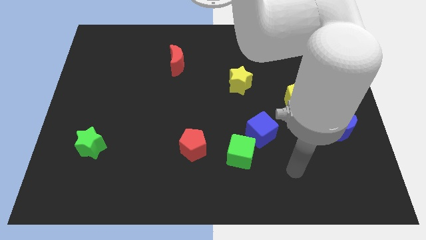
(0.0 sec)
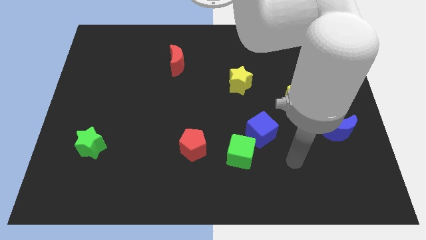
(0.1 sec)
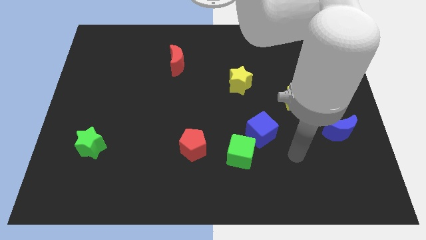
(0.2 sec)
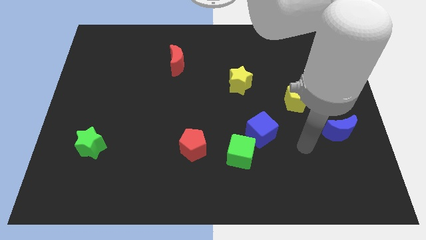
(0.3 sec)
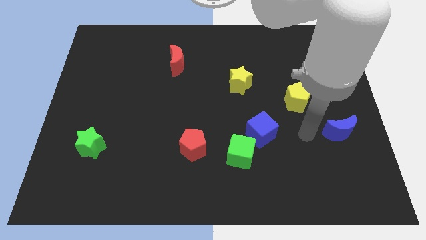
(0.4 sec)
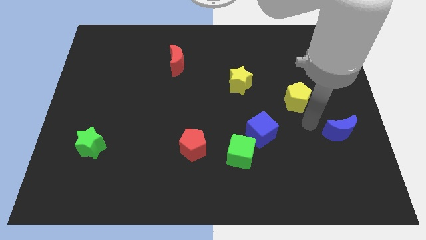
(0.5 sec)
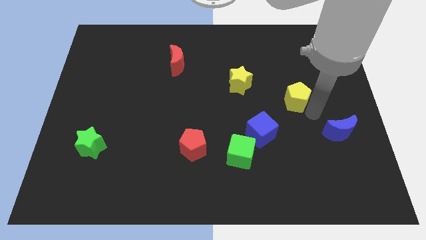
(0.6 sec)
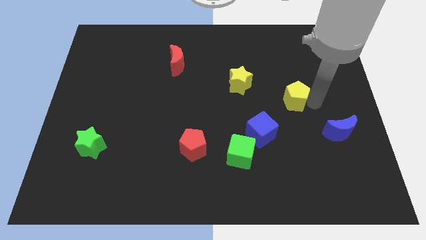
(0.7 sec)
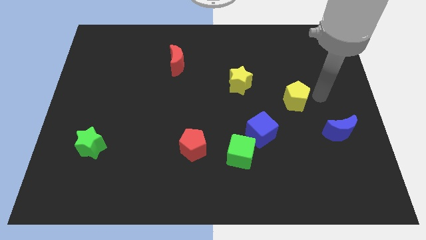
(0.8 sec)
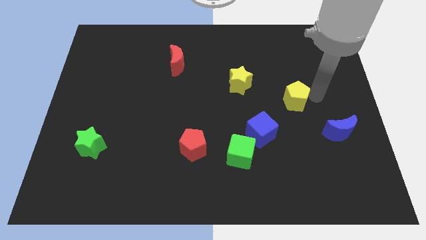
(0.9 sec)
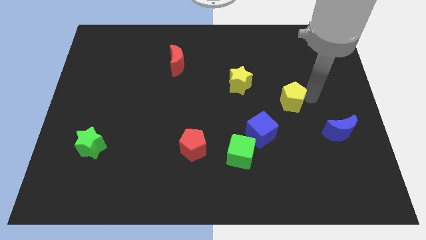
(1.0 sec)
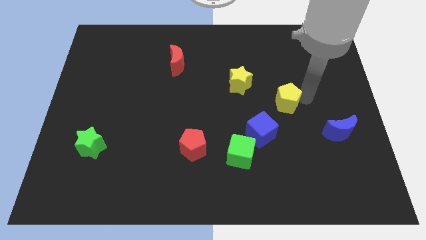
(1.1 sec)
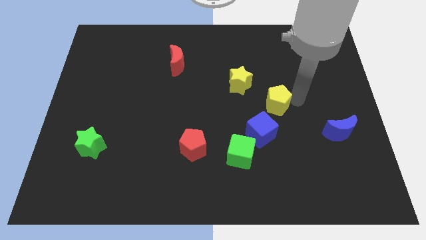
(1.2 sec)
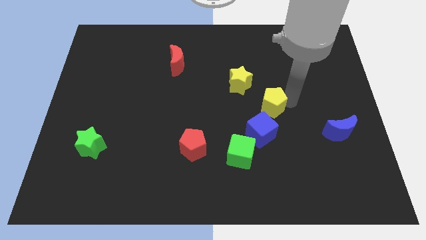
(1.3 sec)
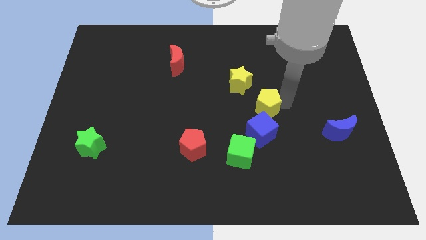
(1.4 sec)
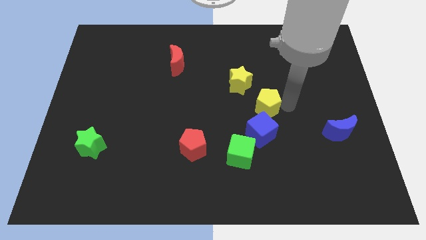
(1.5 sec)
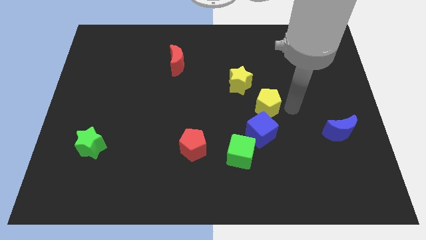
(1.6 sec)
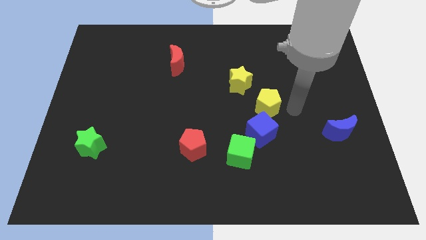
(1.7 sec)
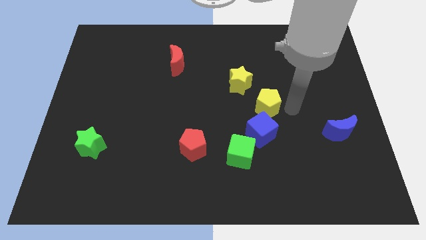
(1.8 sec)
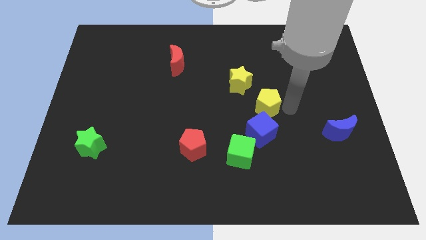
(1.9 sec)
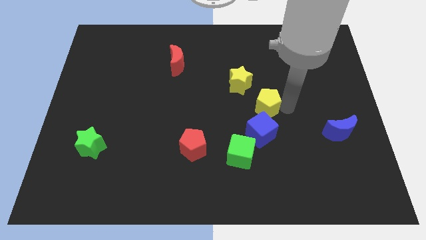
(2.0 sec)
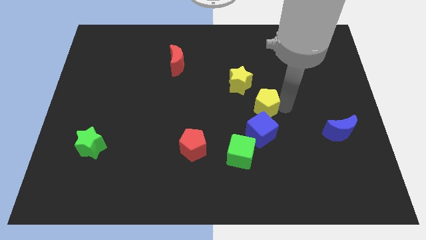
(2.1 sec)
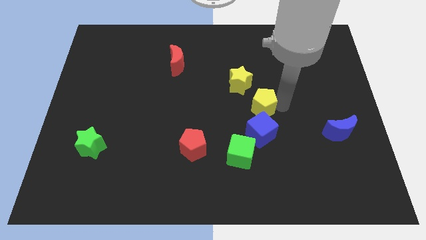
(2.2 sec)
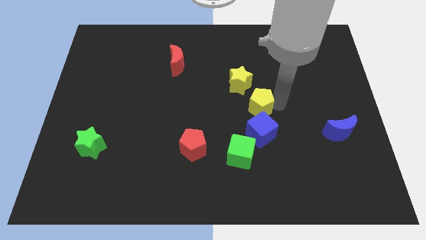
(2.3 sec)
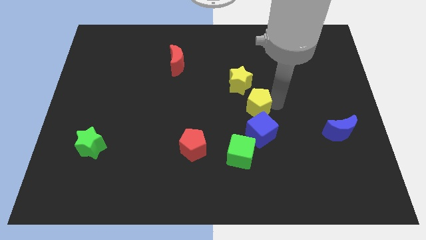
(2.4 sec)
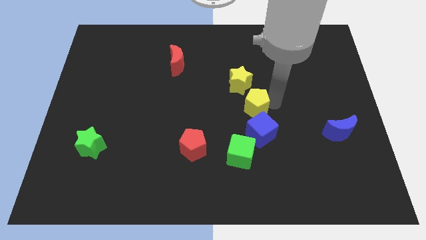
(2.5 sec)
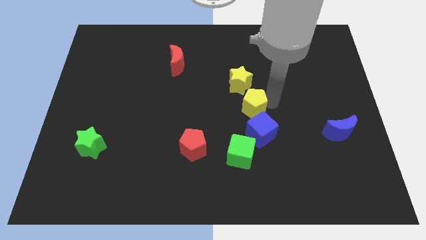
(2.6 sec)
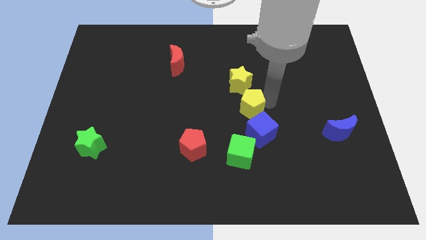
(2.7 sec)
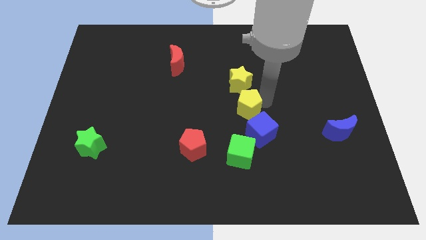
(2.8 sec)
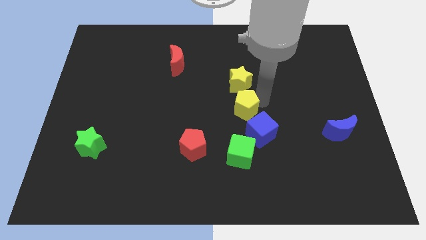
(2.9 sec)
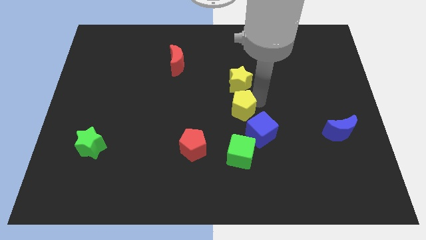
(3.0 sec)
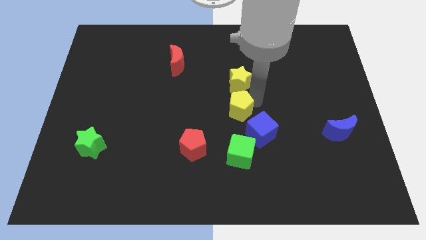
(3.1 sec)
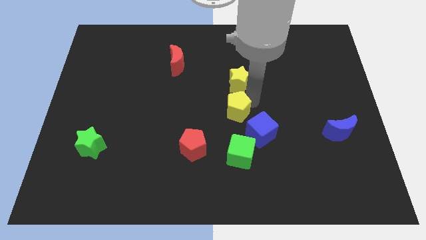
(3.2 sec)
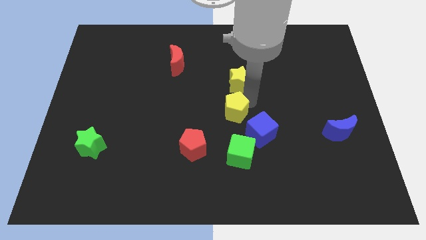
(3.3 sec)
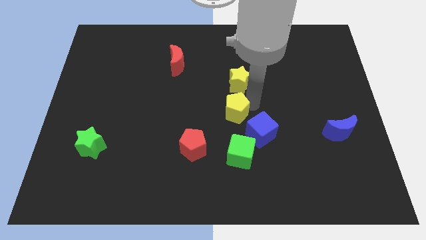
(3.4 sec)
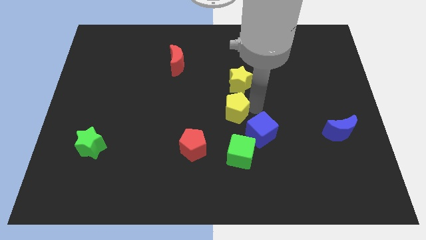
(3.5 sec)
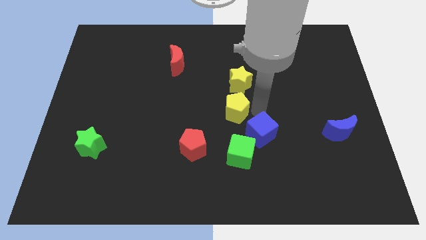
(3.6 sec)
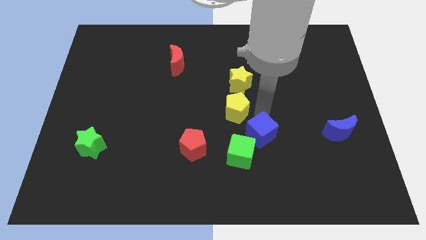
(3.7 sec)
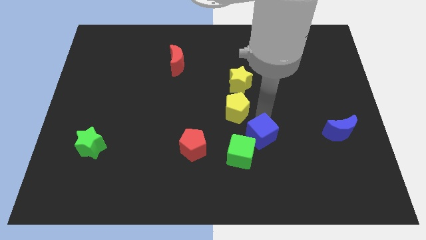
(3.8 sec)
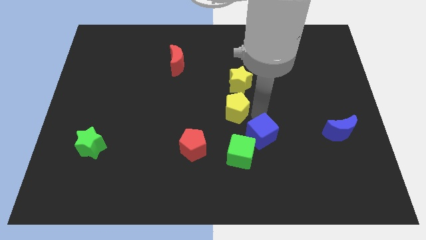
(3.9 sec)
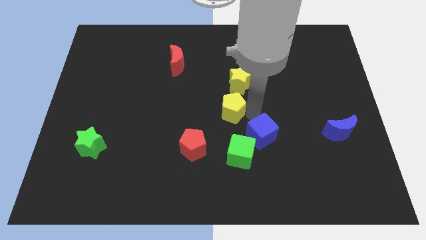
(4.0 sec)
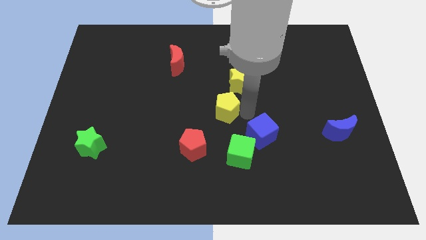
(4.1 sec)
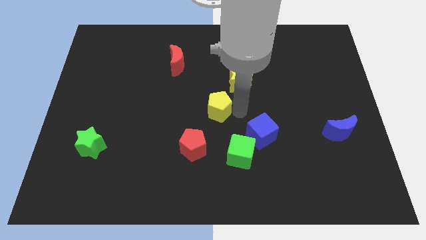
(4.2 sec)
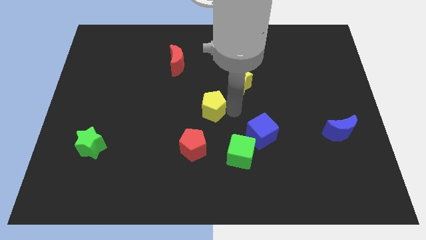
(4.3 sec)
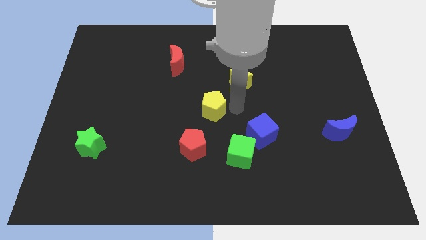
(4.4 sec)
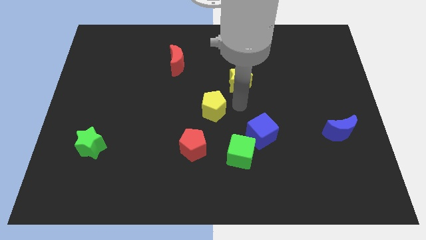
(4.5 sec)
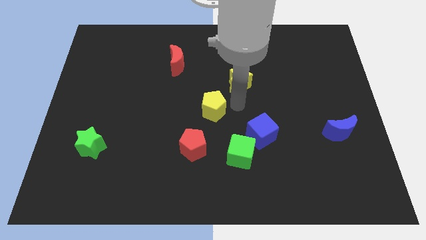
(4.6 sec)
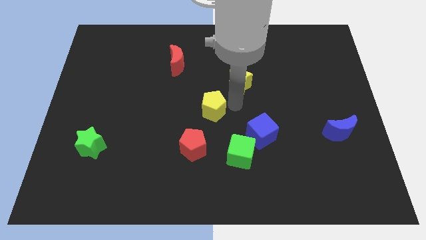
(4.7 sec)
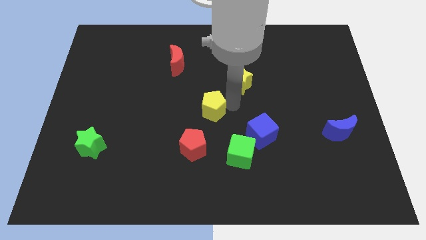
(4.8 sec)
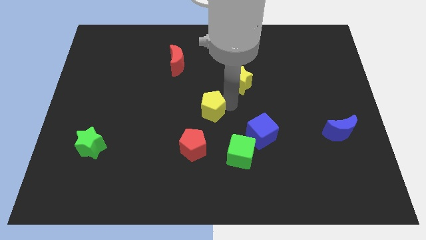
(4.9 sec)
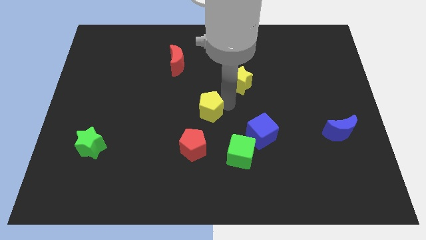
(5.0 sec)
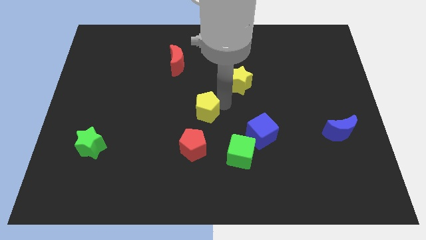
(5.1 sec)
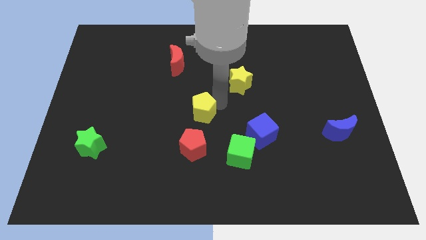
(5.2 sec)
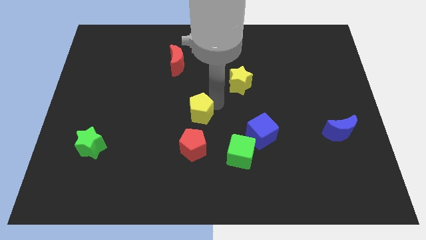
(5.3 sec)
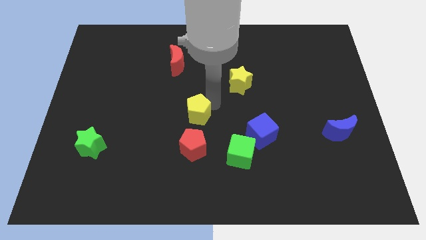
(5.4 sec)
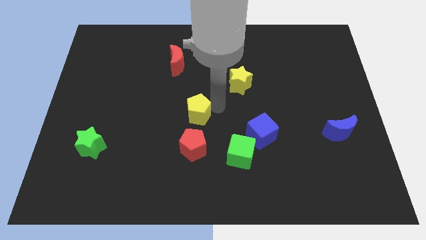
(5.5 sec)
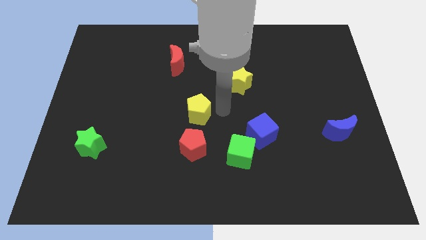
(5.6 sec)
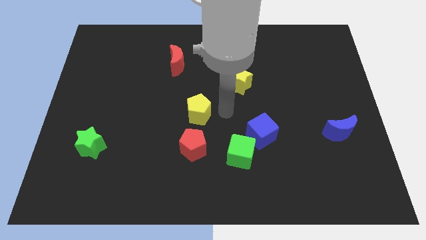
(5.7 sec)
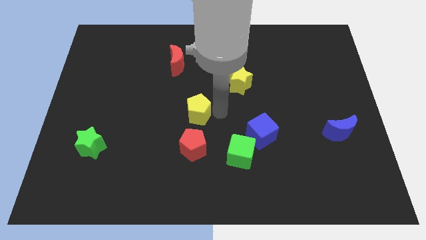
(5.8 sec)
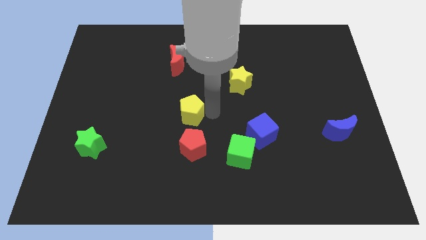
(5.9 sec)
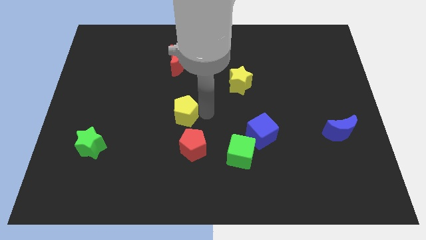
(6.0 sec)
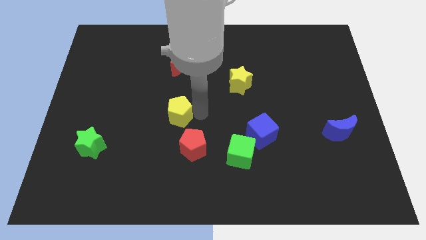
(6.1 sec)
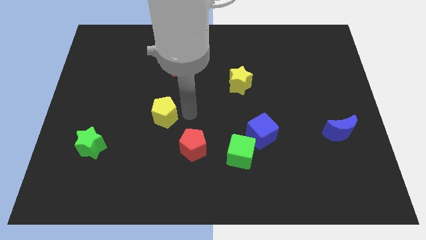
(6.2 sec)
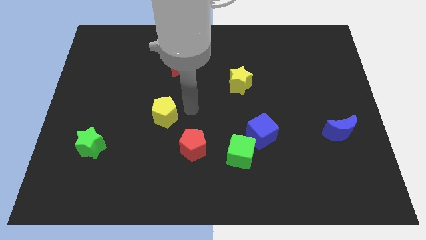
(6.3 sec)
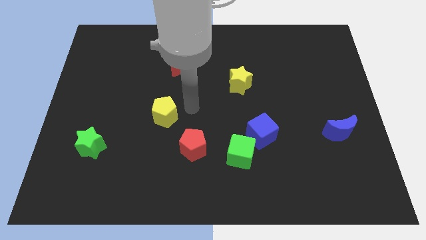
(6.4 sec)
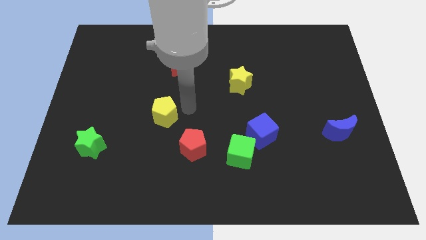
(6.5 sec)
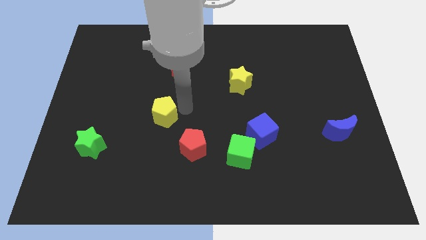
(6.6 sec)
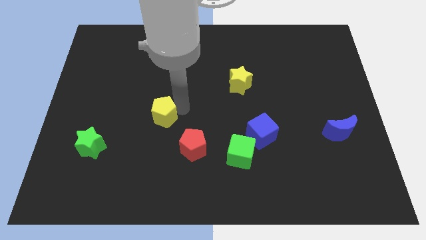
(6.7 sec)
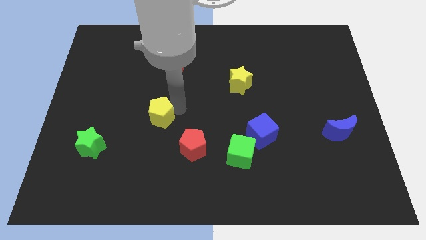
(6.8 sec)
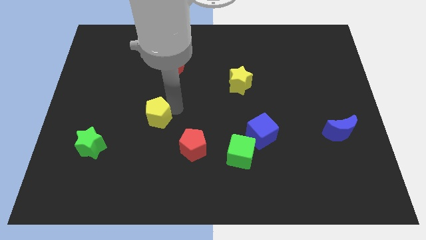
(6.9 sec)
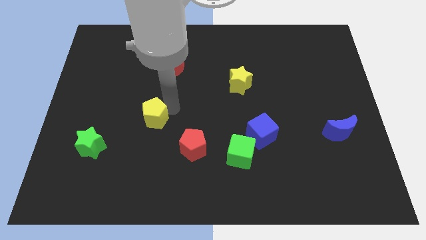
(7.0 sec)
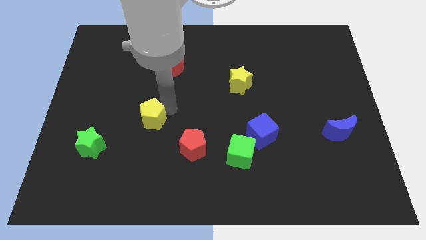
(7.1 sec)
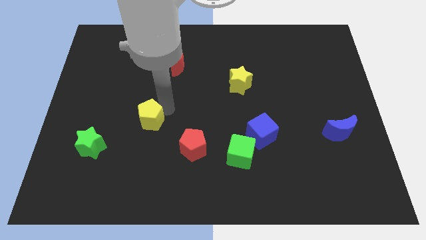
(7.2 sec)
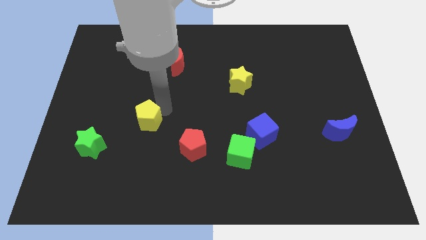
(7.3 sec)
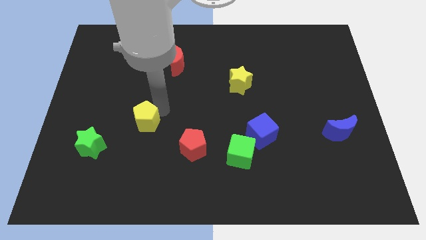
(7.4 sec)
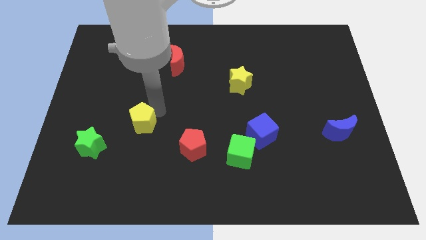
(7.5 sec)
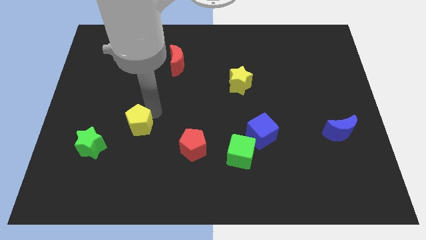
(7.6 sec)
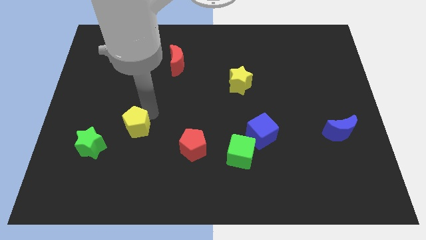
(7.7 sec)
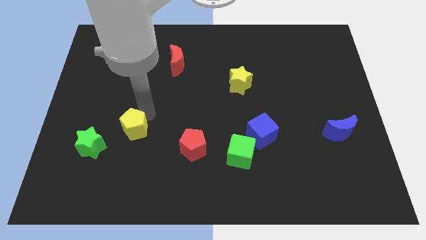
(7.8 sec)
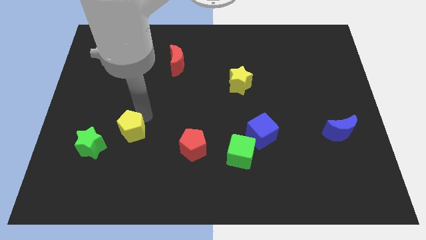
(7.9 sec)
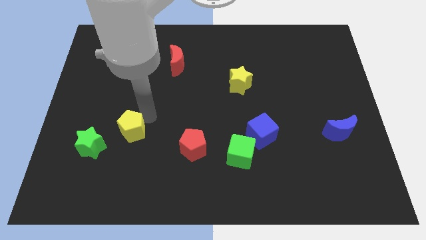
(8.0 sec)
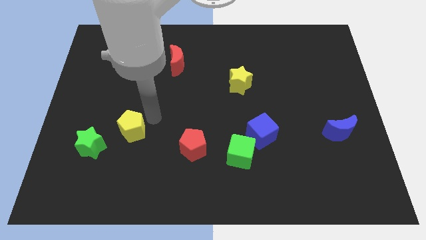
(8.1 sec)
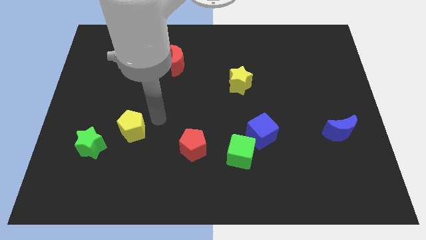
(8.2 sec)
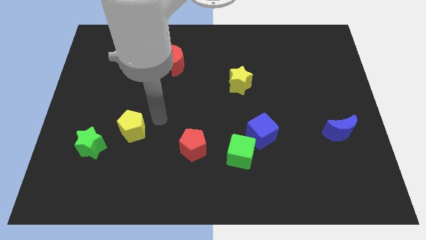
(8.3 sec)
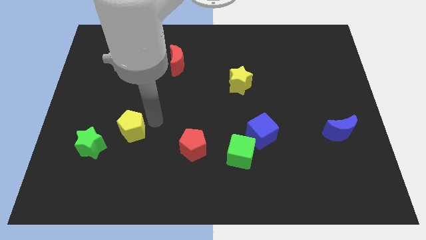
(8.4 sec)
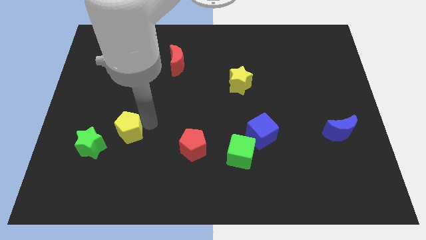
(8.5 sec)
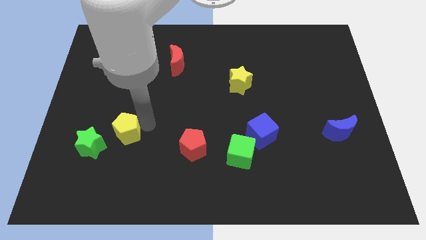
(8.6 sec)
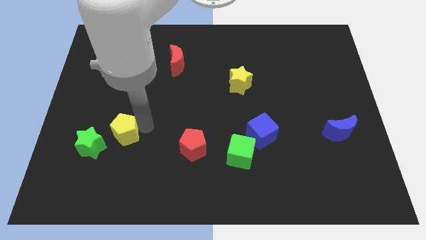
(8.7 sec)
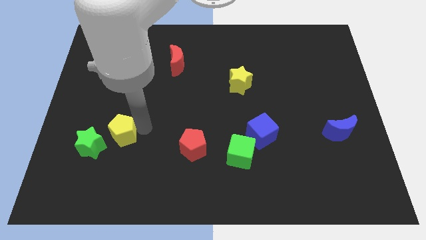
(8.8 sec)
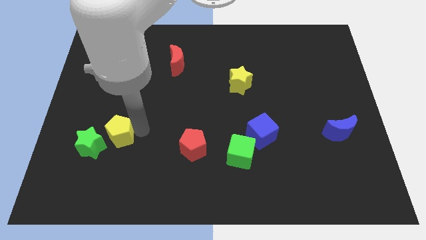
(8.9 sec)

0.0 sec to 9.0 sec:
put the yellow pentagon towards the green star
